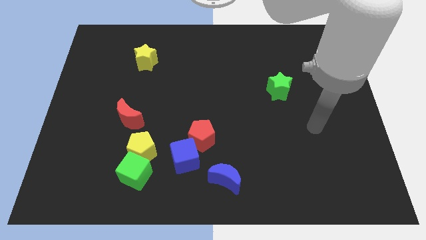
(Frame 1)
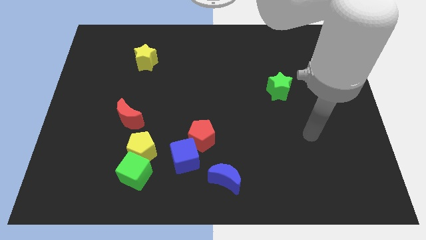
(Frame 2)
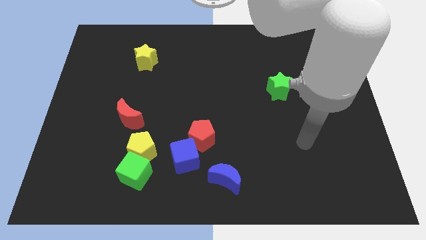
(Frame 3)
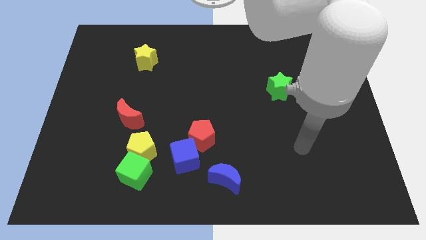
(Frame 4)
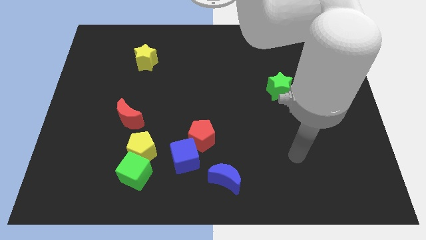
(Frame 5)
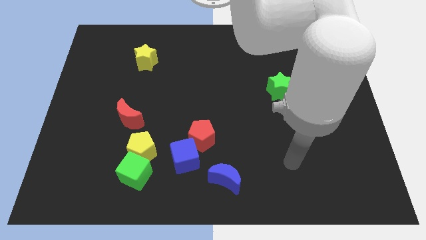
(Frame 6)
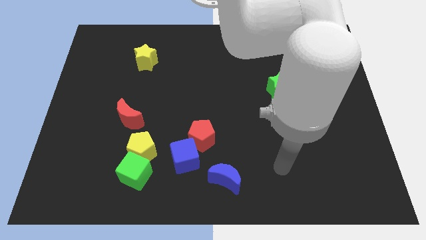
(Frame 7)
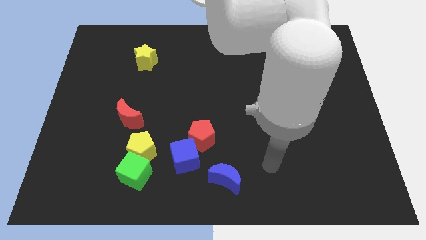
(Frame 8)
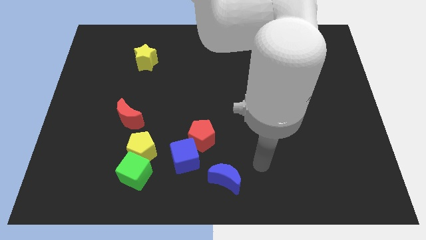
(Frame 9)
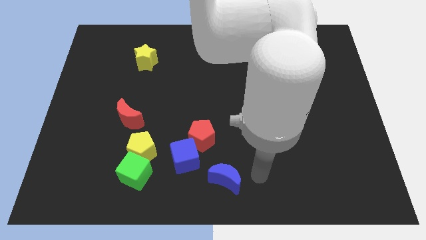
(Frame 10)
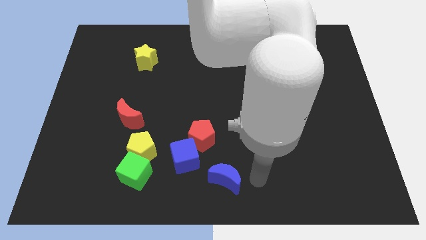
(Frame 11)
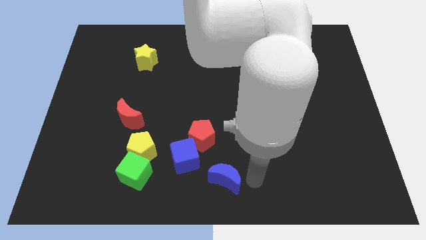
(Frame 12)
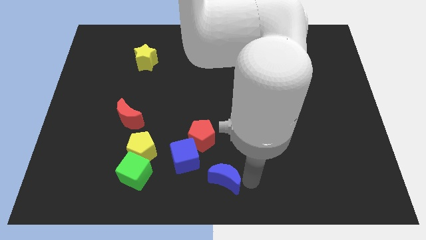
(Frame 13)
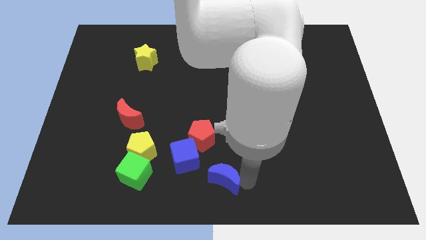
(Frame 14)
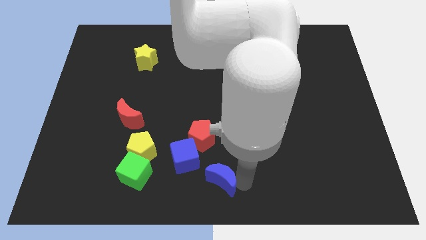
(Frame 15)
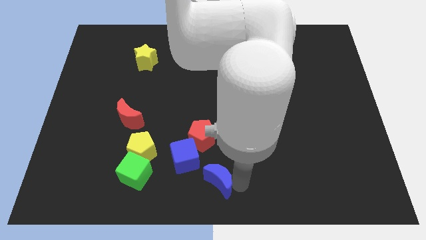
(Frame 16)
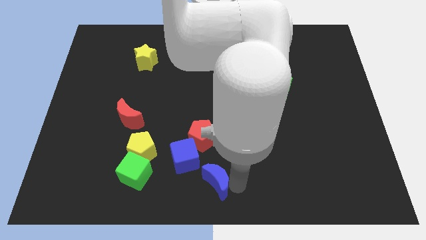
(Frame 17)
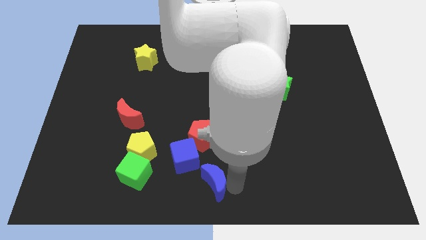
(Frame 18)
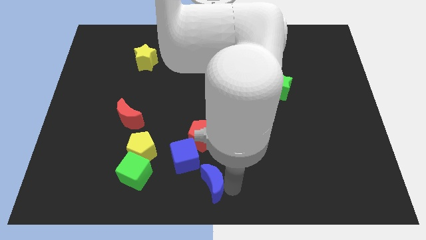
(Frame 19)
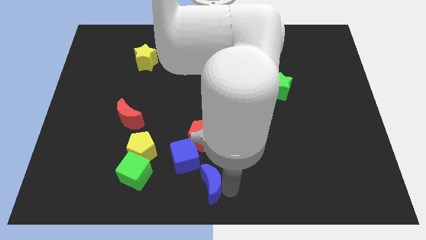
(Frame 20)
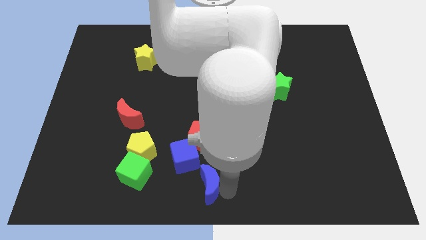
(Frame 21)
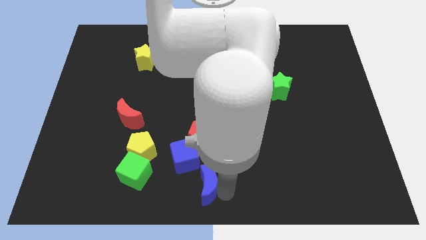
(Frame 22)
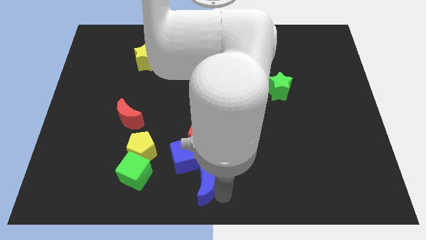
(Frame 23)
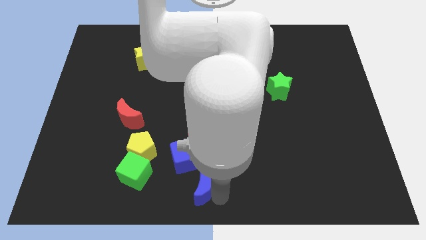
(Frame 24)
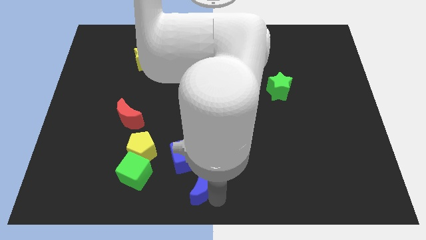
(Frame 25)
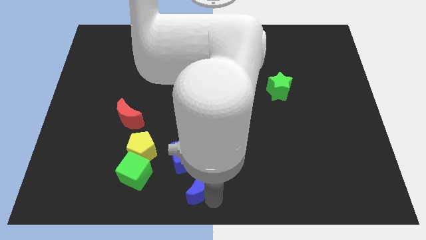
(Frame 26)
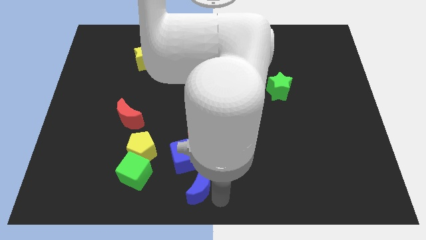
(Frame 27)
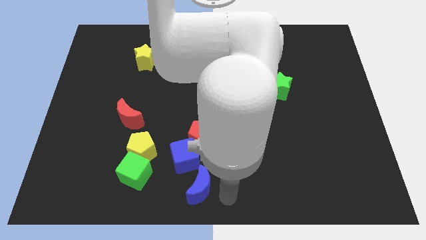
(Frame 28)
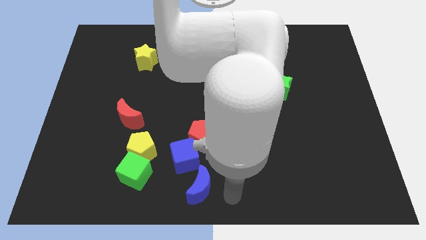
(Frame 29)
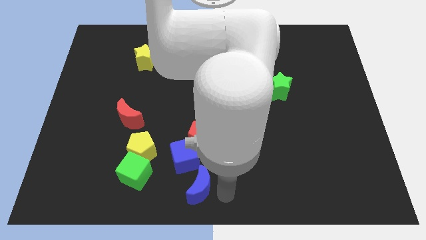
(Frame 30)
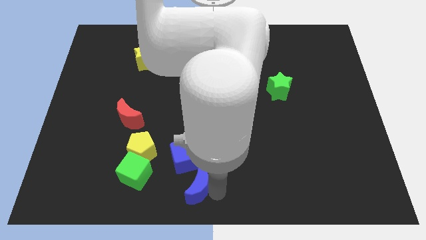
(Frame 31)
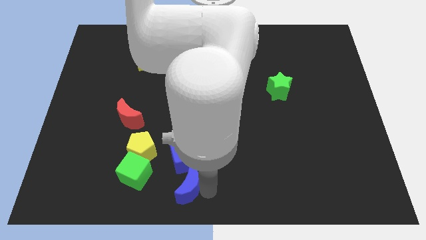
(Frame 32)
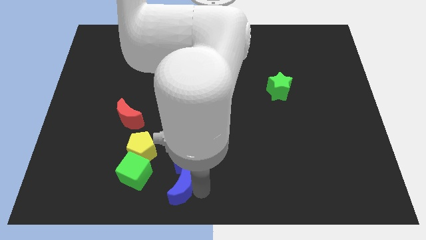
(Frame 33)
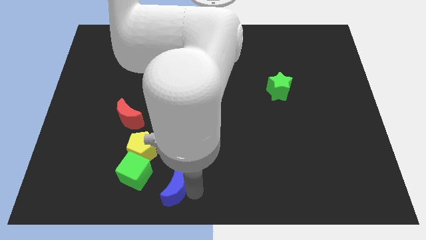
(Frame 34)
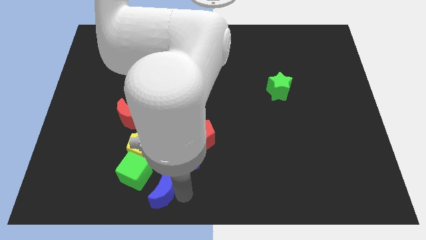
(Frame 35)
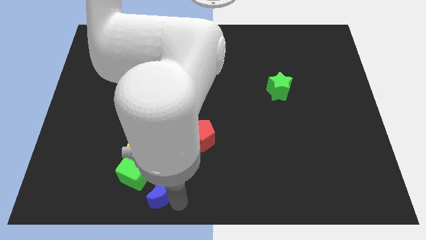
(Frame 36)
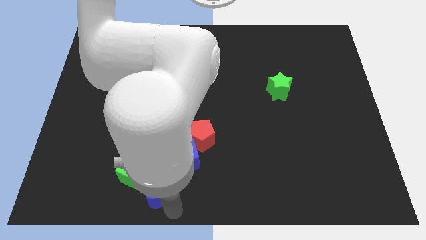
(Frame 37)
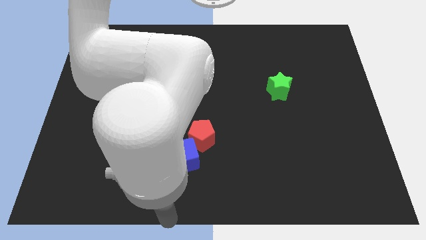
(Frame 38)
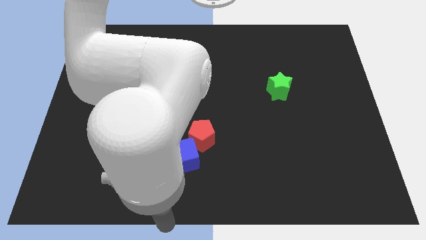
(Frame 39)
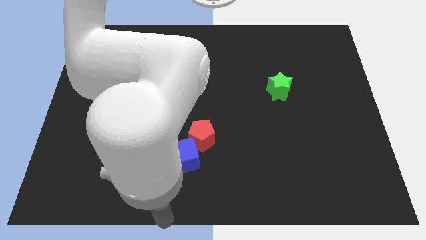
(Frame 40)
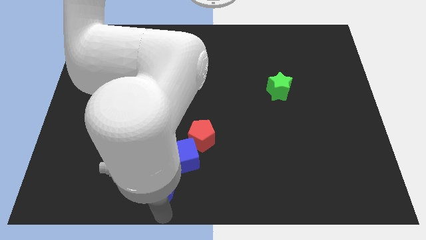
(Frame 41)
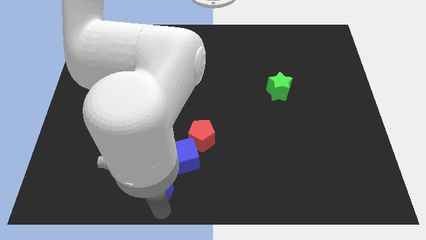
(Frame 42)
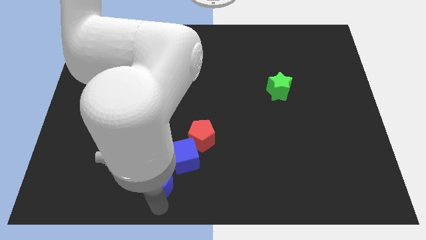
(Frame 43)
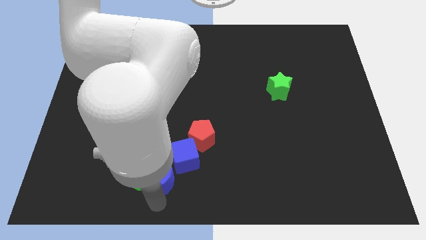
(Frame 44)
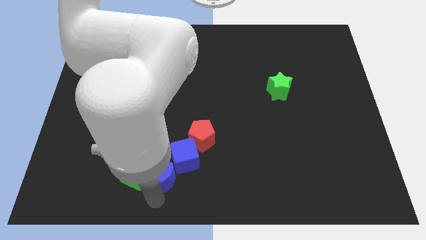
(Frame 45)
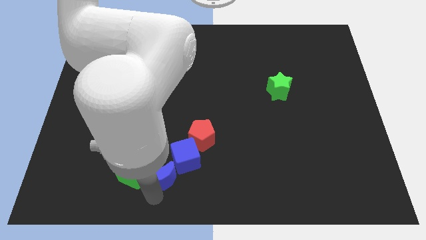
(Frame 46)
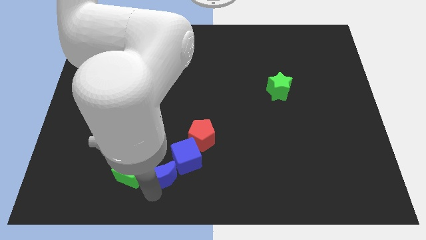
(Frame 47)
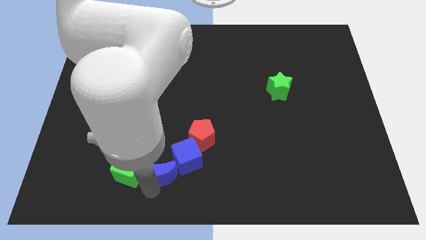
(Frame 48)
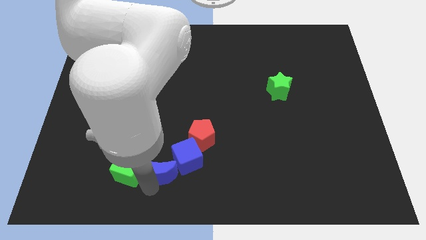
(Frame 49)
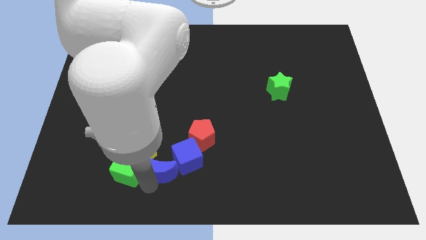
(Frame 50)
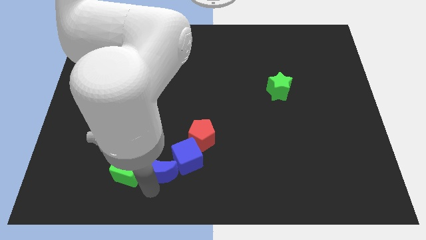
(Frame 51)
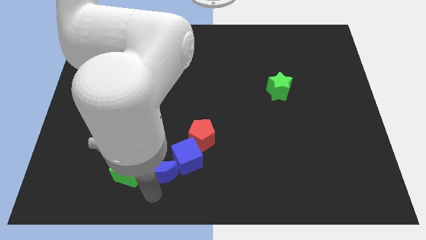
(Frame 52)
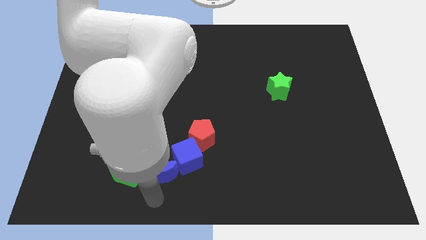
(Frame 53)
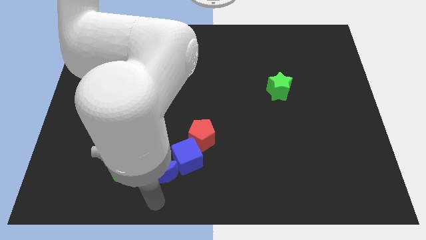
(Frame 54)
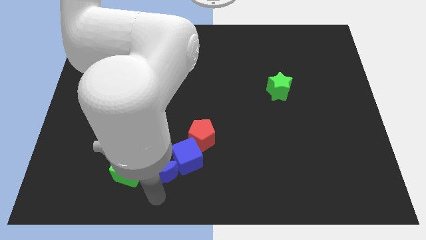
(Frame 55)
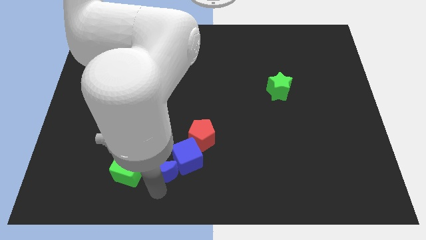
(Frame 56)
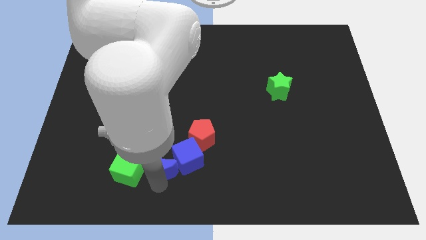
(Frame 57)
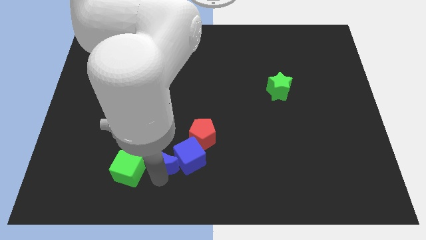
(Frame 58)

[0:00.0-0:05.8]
slide the blue moon to the top left side of the blue cube

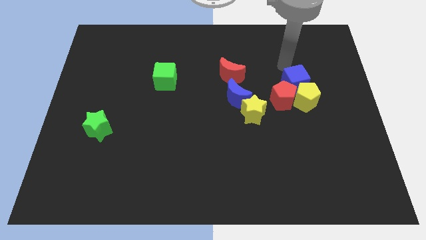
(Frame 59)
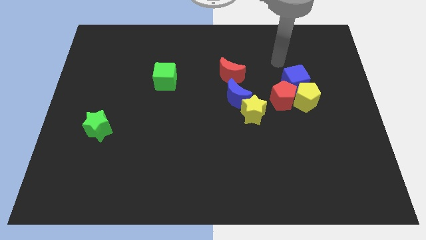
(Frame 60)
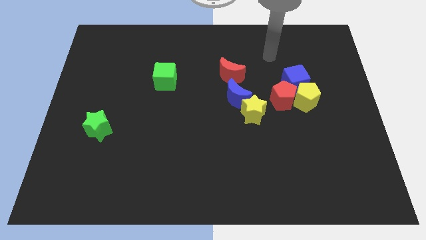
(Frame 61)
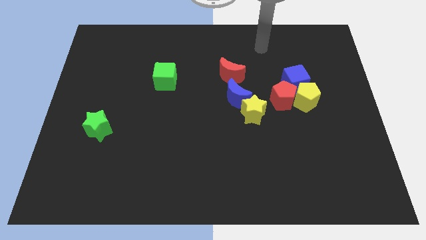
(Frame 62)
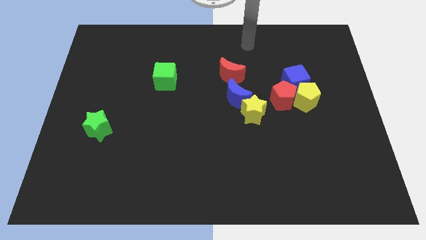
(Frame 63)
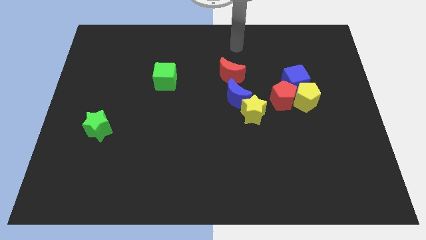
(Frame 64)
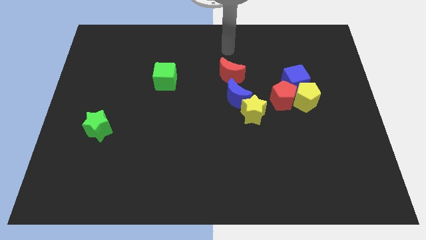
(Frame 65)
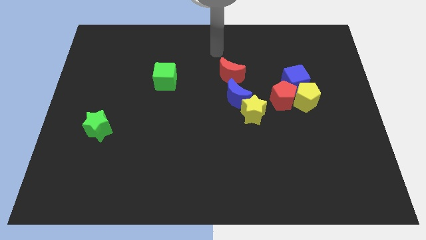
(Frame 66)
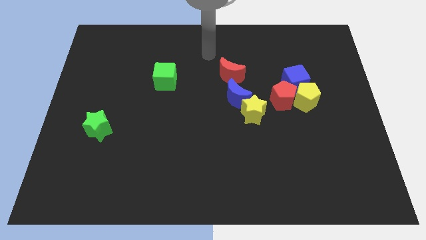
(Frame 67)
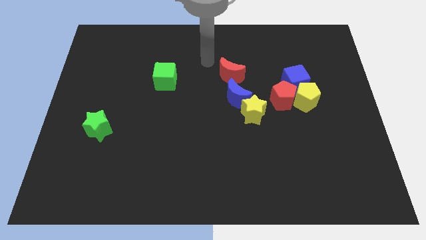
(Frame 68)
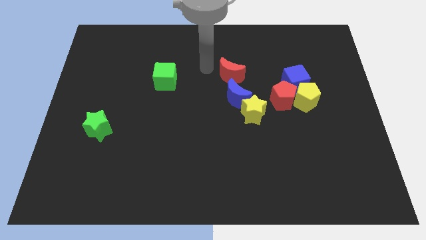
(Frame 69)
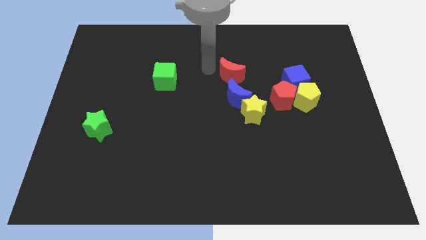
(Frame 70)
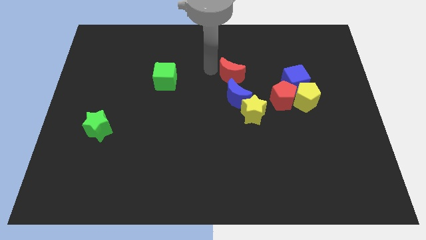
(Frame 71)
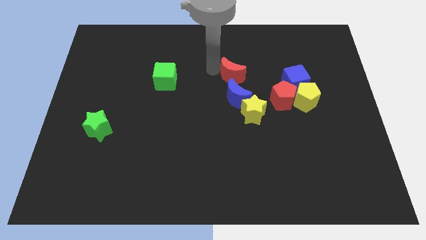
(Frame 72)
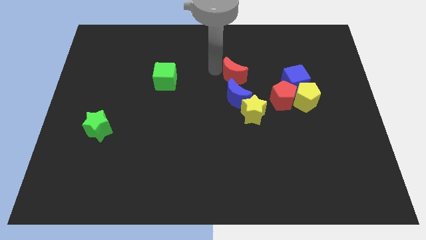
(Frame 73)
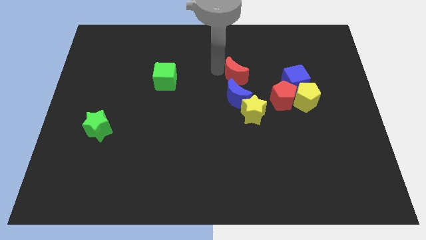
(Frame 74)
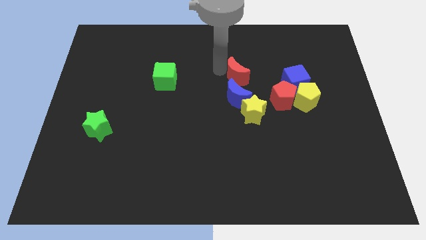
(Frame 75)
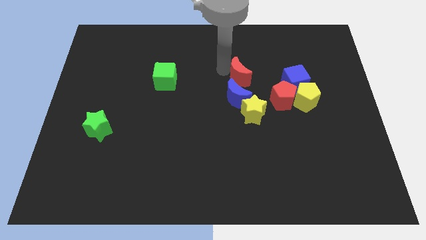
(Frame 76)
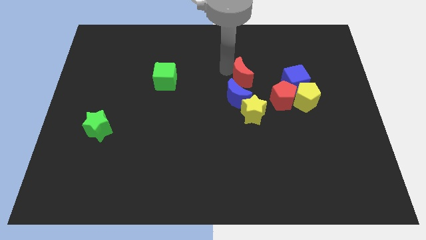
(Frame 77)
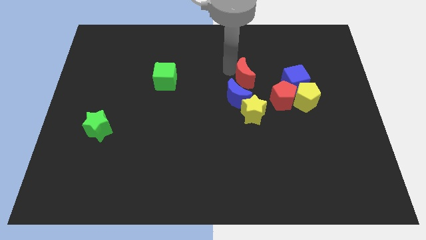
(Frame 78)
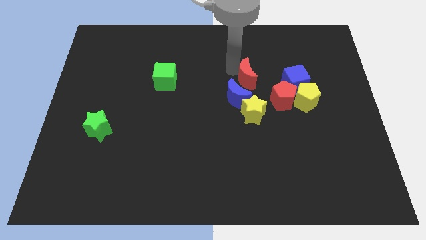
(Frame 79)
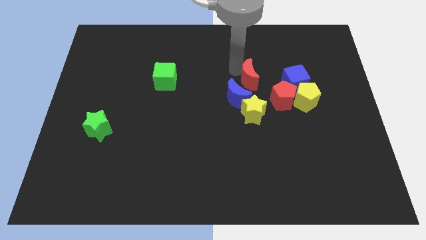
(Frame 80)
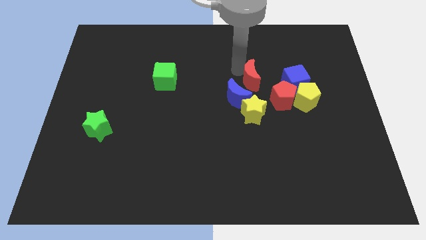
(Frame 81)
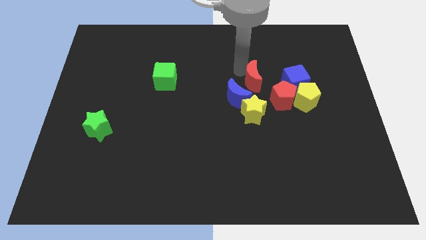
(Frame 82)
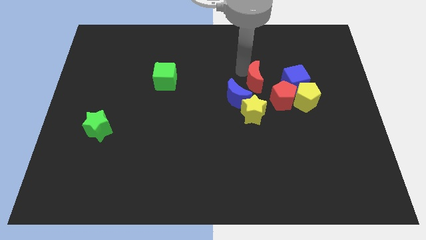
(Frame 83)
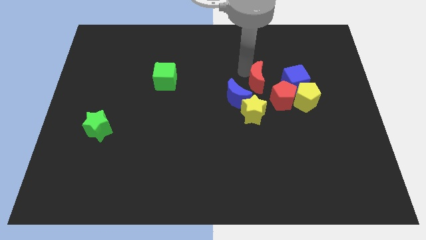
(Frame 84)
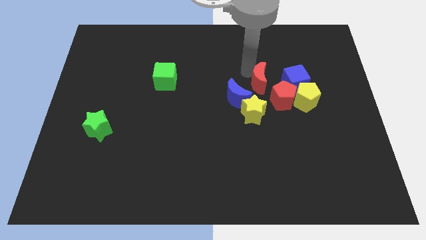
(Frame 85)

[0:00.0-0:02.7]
slide the red moon diagonally up and to the left of the yellow pentagon
